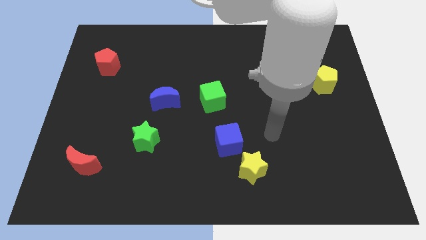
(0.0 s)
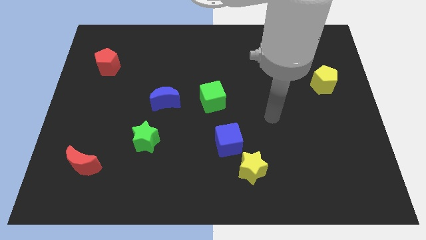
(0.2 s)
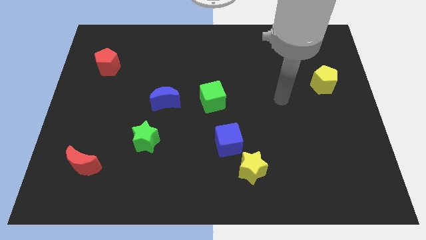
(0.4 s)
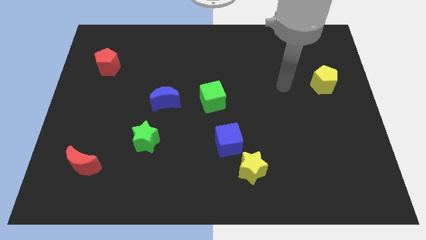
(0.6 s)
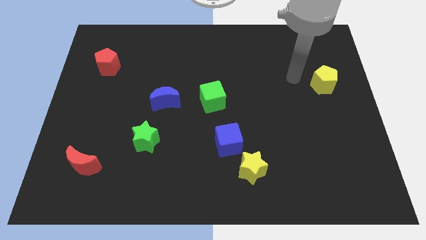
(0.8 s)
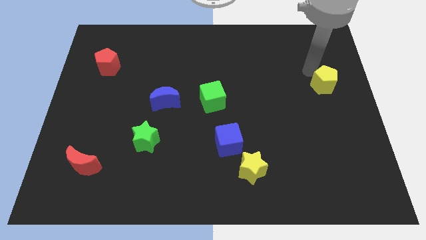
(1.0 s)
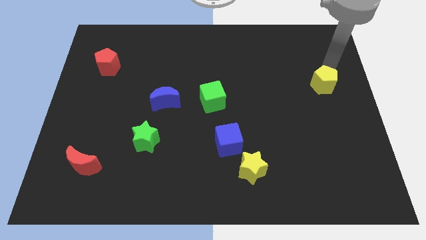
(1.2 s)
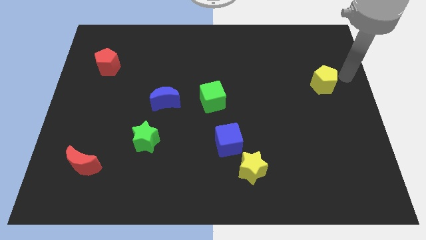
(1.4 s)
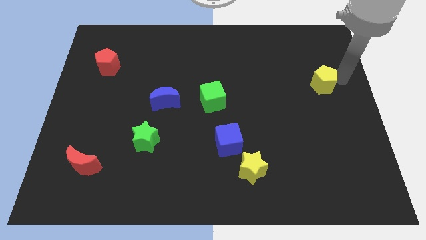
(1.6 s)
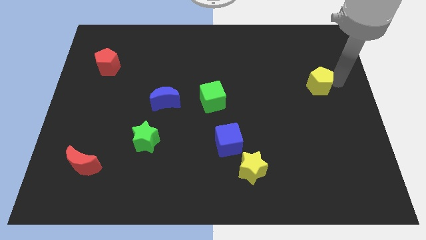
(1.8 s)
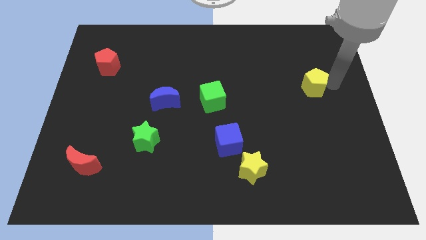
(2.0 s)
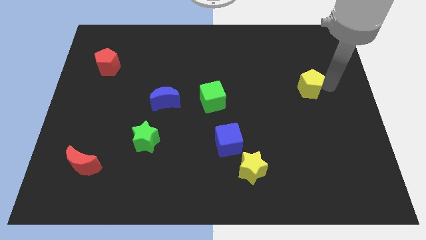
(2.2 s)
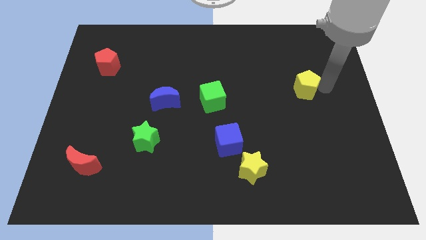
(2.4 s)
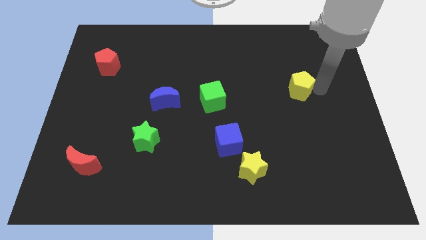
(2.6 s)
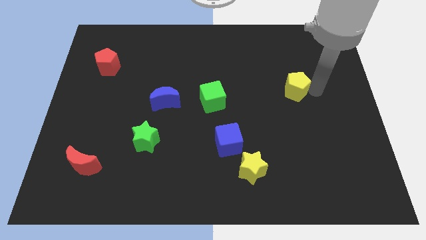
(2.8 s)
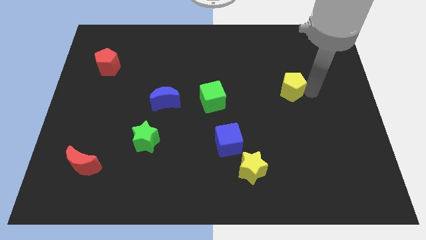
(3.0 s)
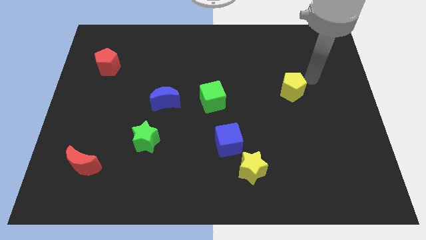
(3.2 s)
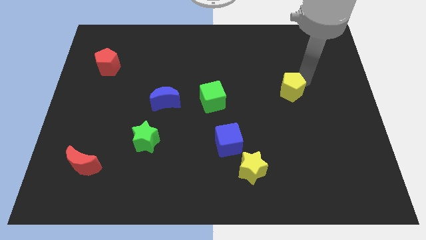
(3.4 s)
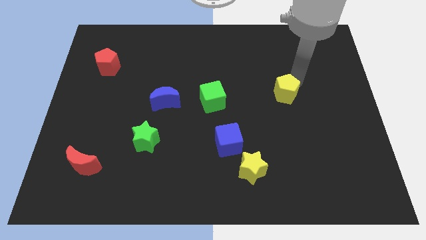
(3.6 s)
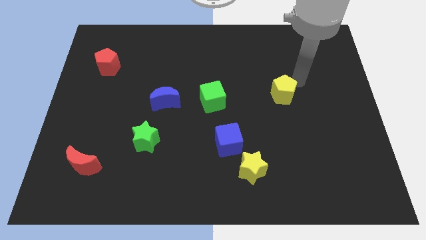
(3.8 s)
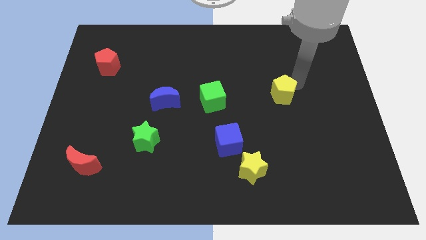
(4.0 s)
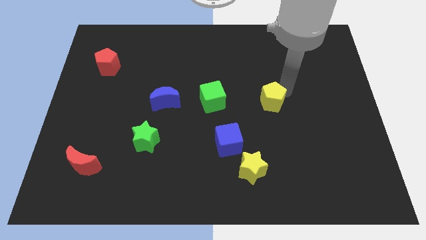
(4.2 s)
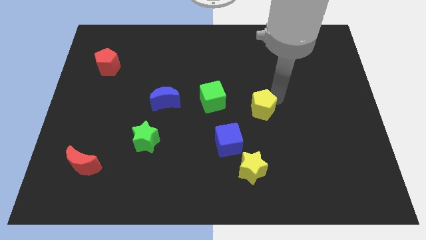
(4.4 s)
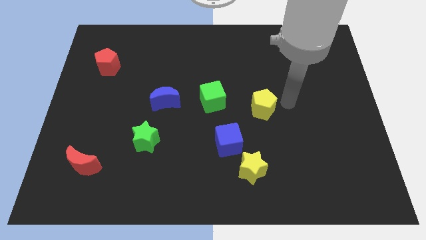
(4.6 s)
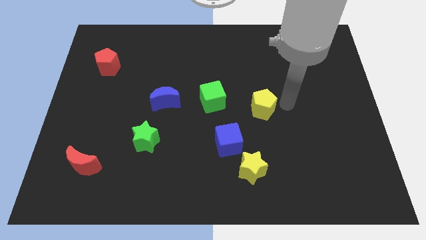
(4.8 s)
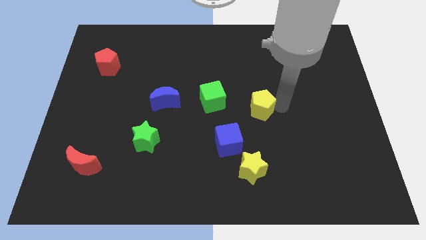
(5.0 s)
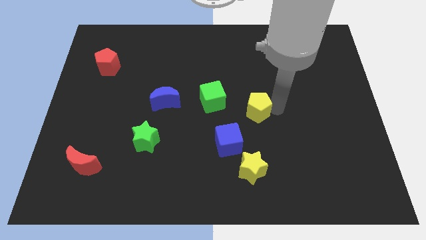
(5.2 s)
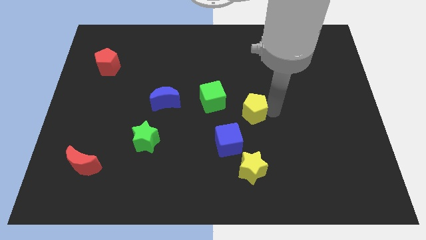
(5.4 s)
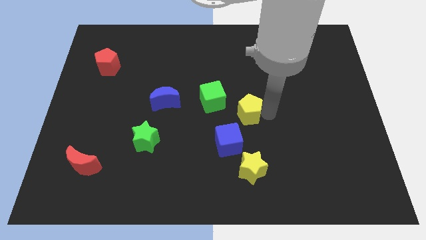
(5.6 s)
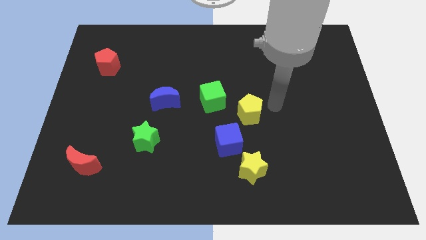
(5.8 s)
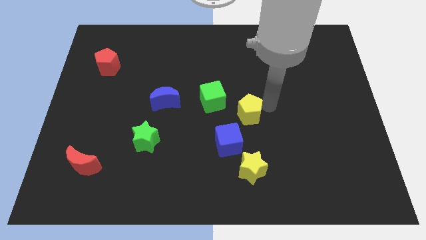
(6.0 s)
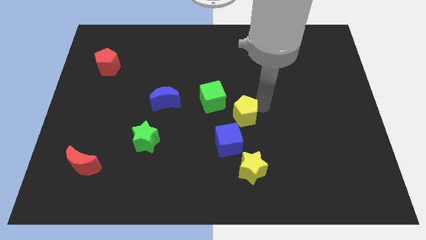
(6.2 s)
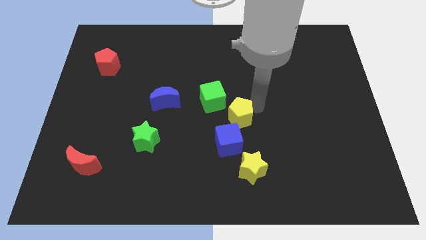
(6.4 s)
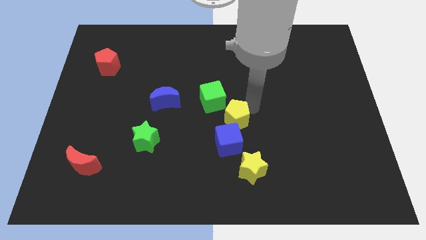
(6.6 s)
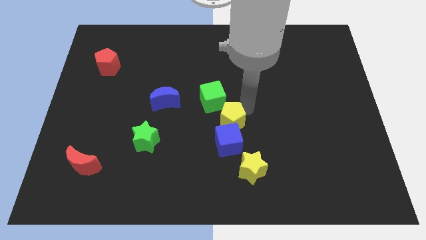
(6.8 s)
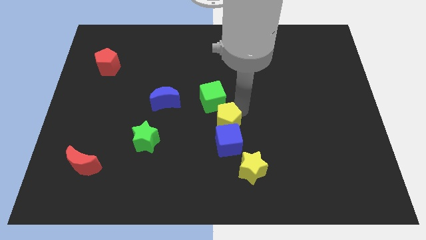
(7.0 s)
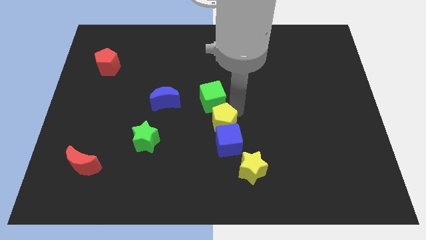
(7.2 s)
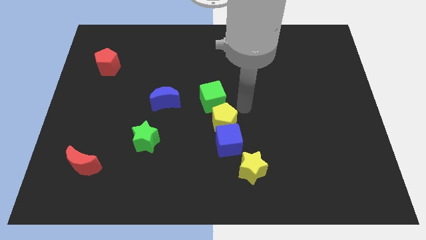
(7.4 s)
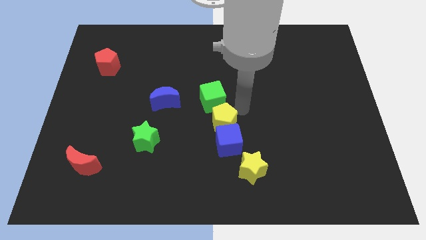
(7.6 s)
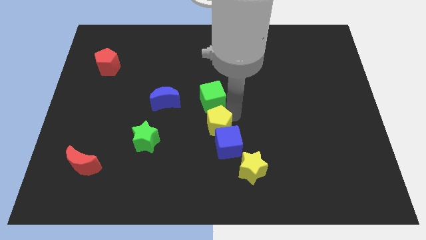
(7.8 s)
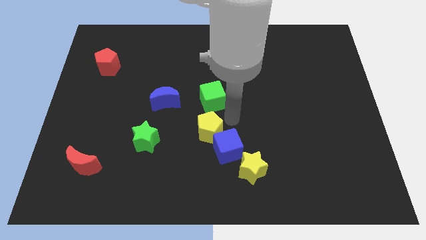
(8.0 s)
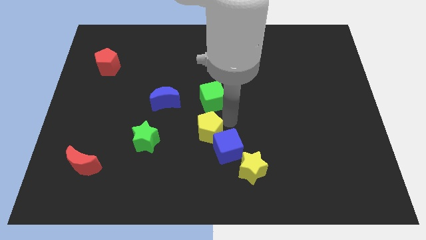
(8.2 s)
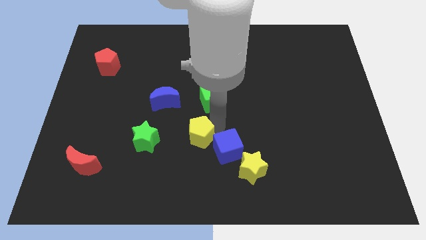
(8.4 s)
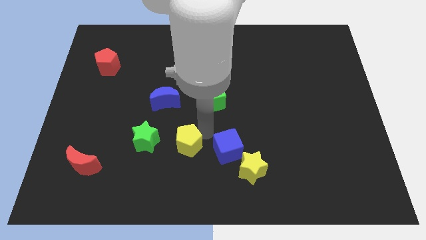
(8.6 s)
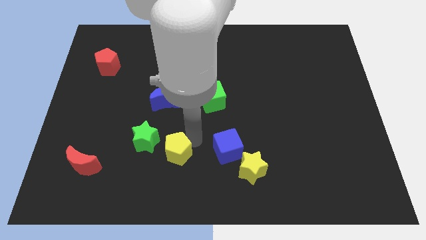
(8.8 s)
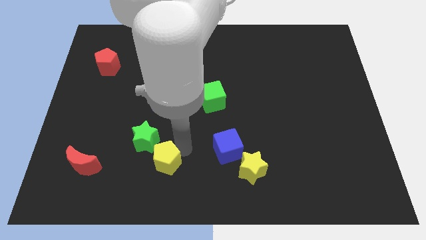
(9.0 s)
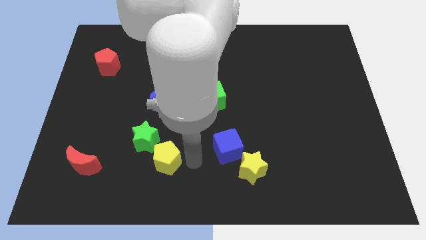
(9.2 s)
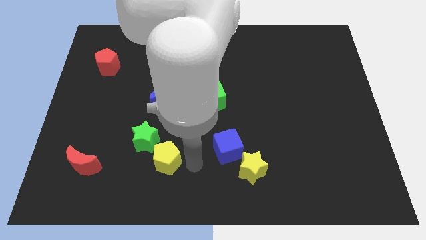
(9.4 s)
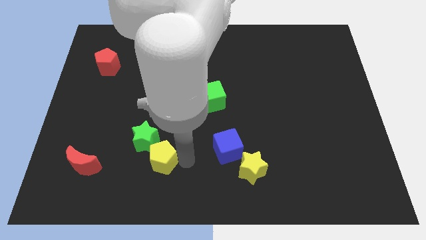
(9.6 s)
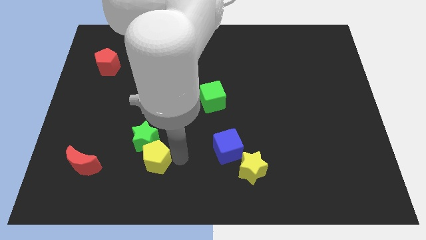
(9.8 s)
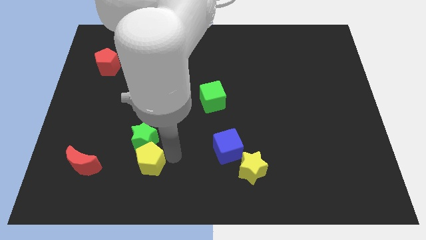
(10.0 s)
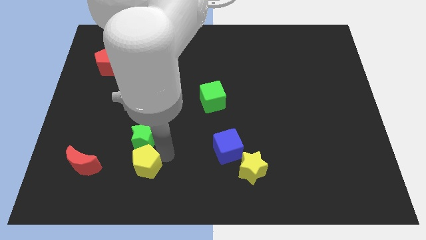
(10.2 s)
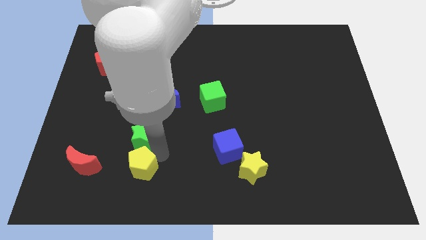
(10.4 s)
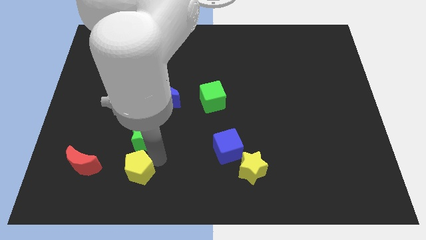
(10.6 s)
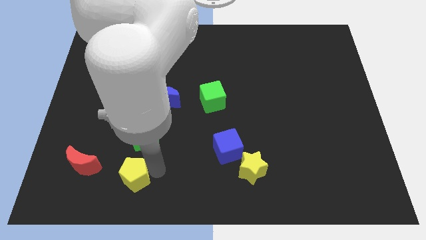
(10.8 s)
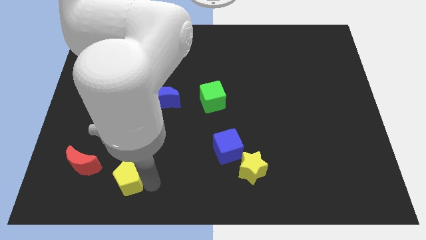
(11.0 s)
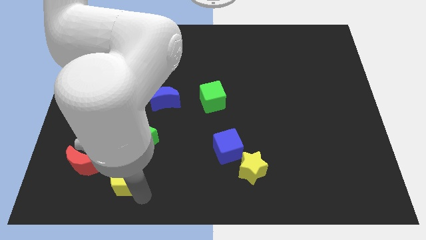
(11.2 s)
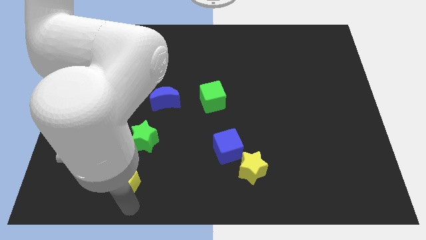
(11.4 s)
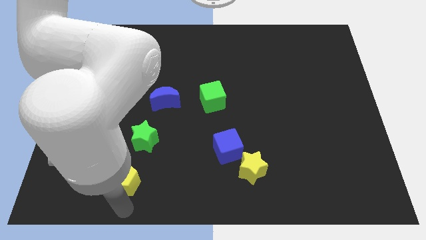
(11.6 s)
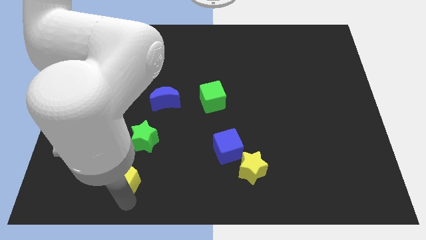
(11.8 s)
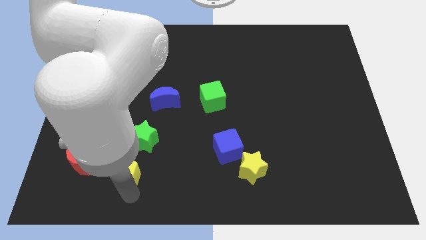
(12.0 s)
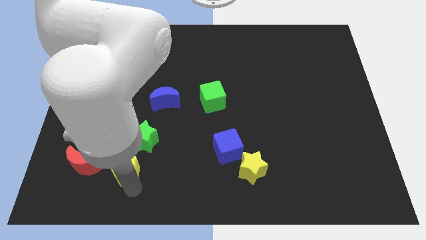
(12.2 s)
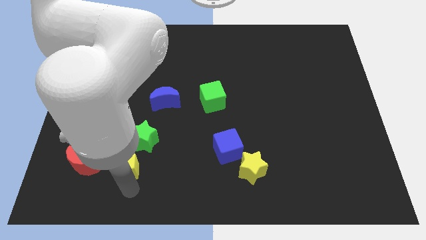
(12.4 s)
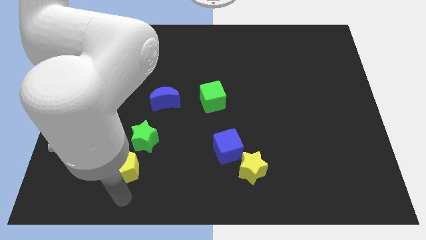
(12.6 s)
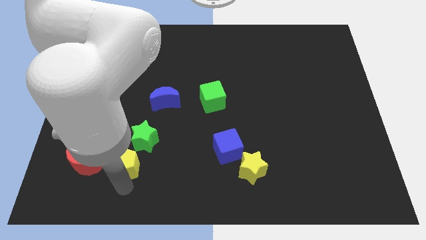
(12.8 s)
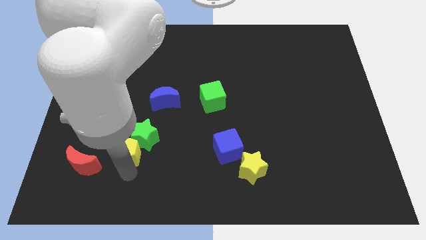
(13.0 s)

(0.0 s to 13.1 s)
put the yellow pentagon diagonally up and to the right of the red moon

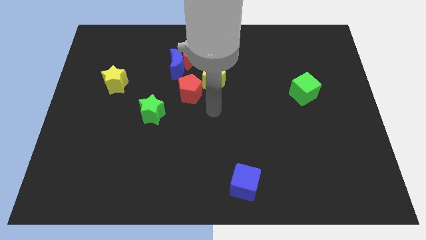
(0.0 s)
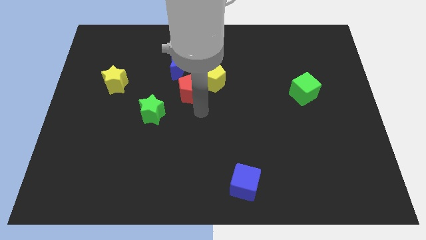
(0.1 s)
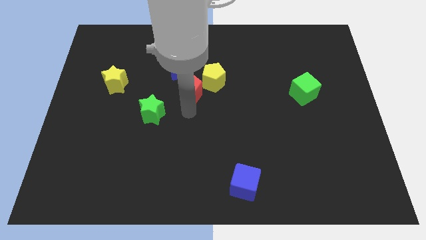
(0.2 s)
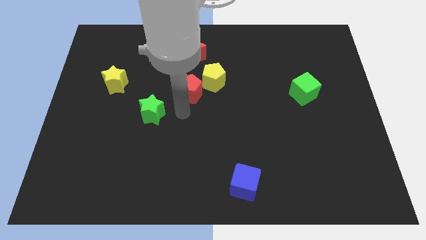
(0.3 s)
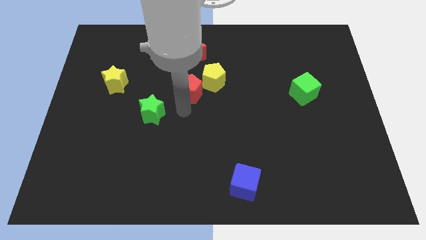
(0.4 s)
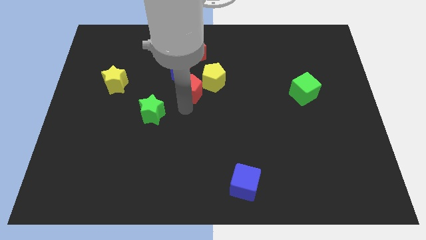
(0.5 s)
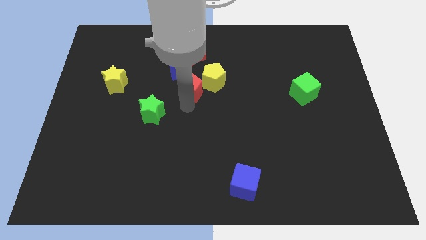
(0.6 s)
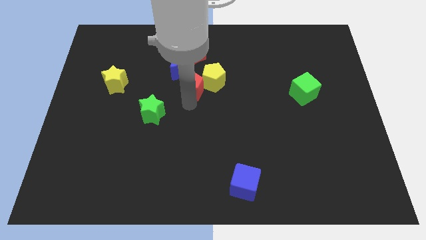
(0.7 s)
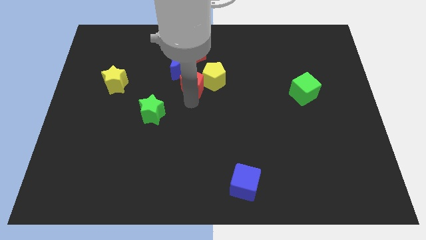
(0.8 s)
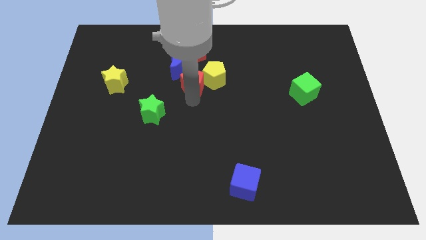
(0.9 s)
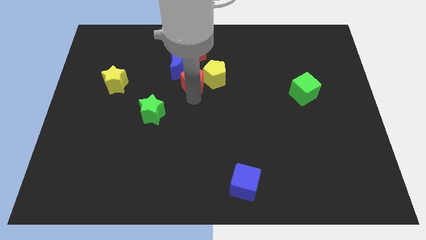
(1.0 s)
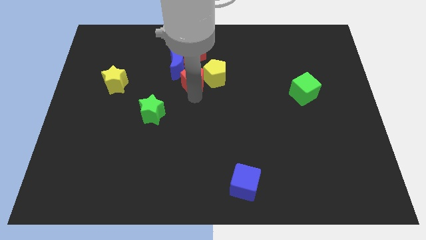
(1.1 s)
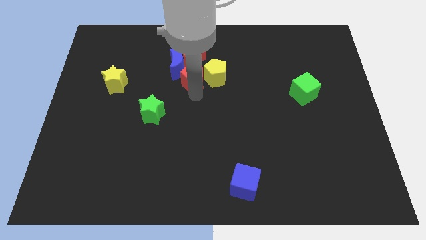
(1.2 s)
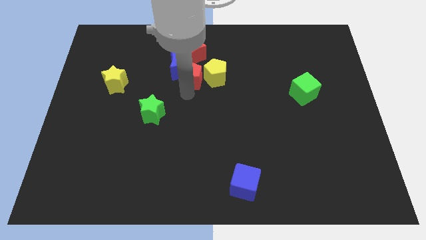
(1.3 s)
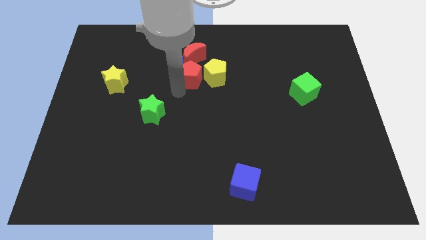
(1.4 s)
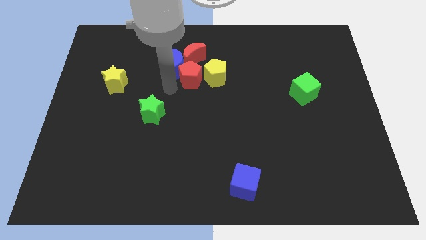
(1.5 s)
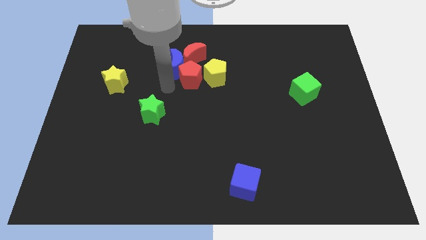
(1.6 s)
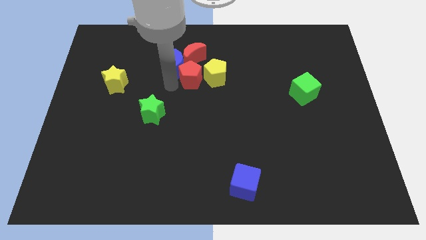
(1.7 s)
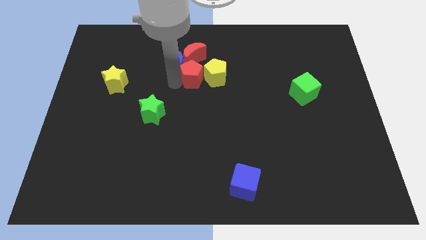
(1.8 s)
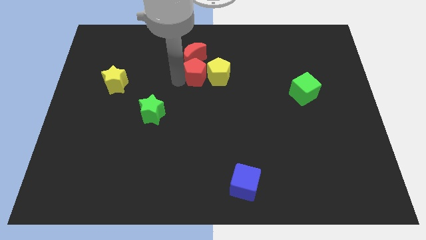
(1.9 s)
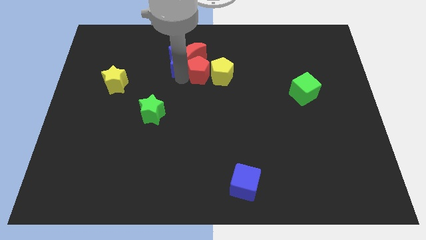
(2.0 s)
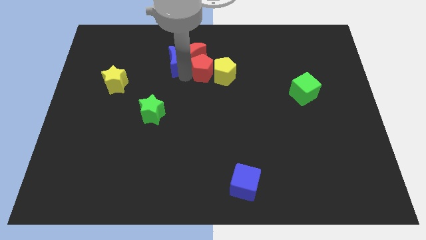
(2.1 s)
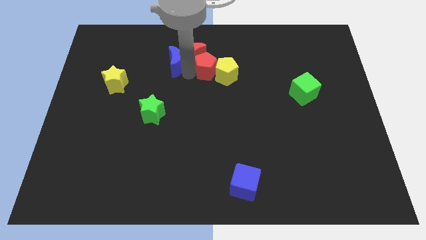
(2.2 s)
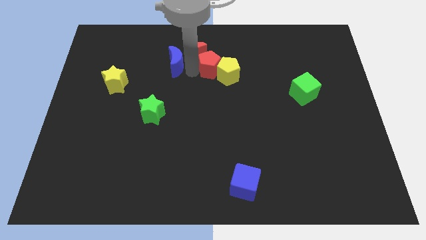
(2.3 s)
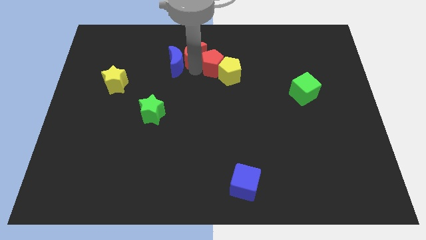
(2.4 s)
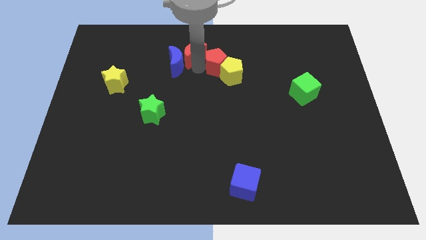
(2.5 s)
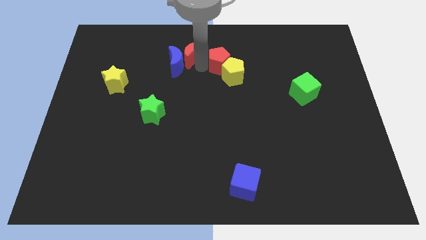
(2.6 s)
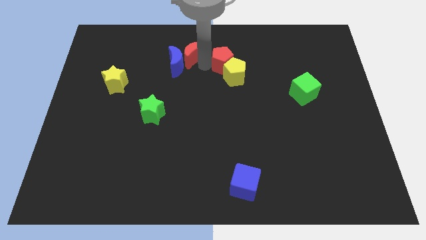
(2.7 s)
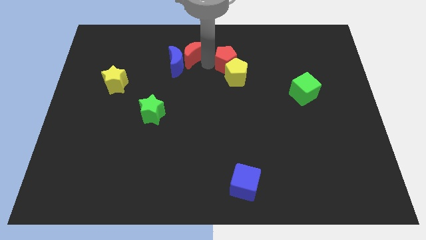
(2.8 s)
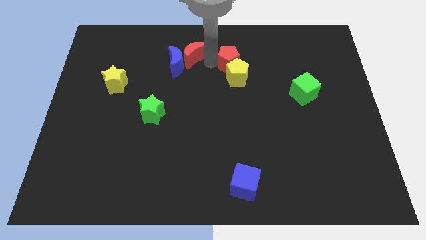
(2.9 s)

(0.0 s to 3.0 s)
move the red pentagon to the top right of the yellow pentagon
